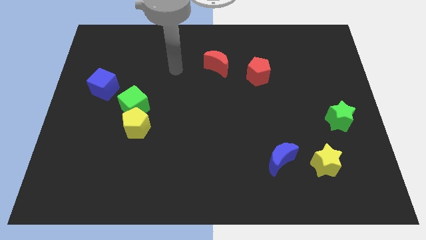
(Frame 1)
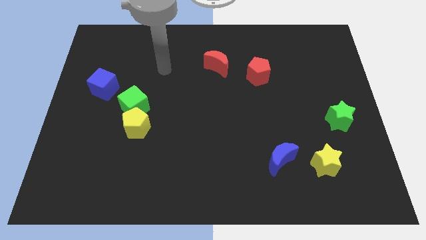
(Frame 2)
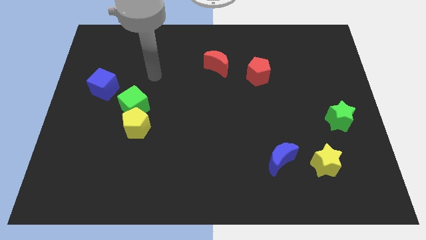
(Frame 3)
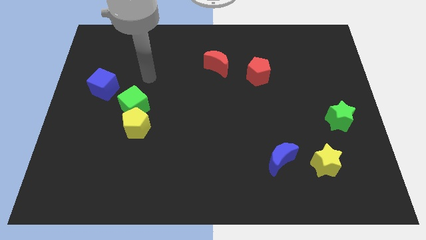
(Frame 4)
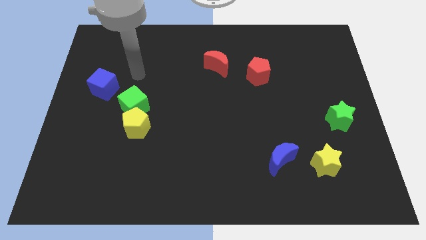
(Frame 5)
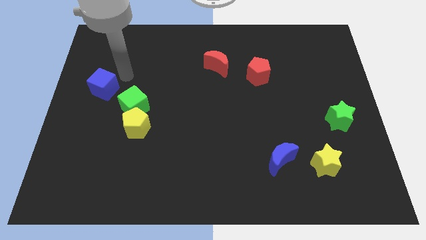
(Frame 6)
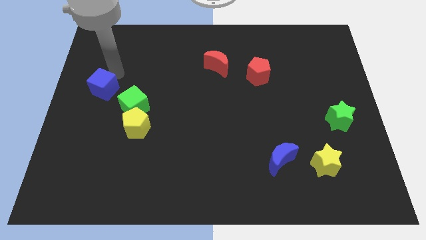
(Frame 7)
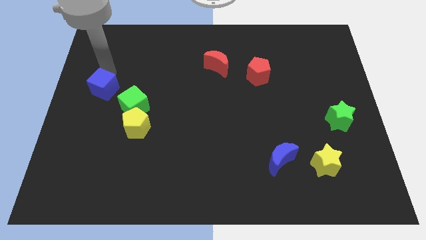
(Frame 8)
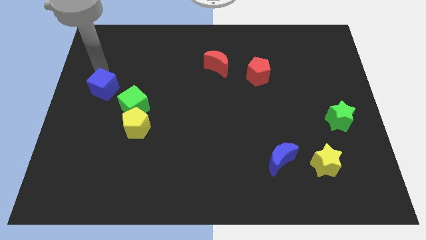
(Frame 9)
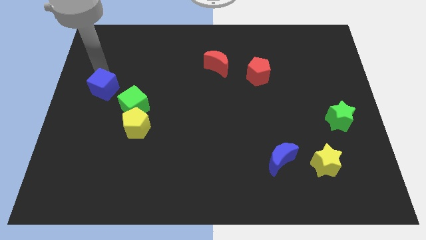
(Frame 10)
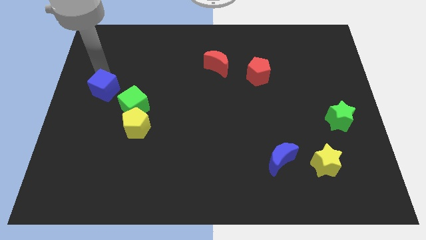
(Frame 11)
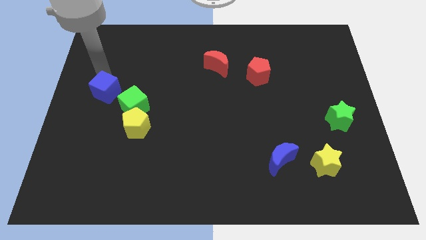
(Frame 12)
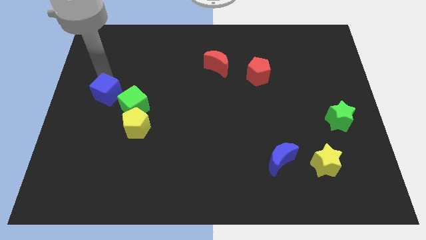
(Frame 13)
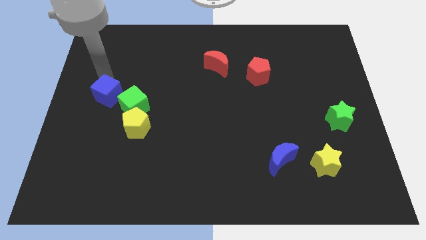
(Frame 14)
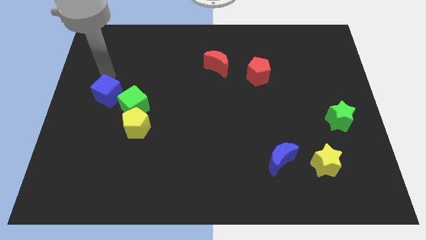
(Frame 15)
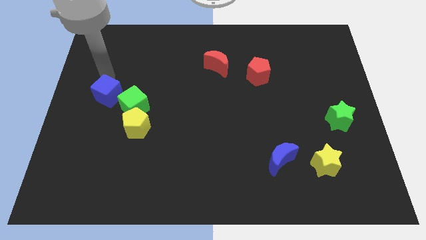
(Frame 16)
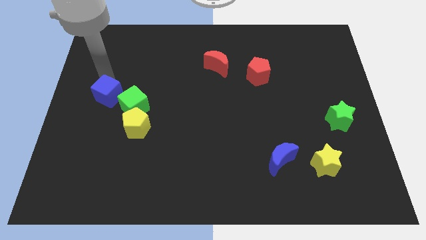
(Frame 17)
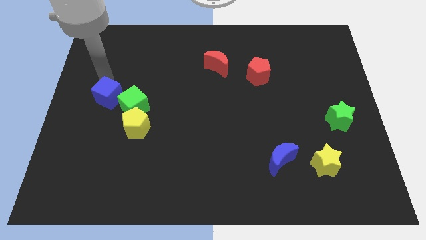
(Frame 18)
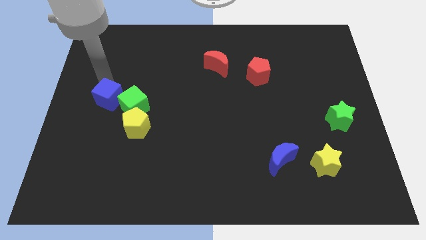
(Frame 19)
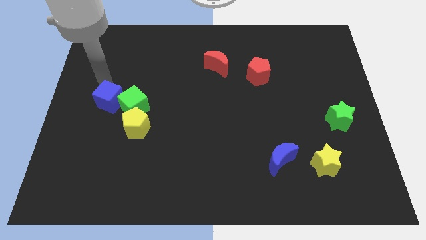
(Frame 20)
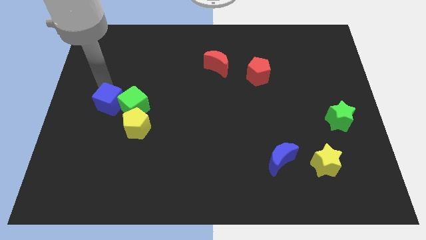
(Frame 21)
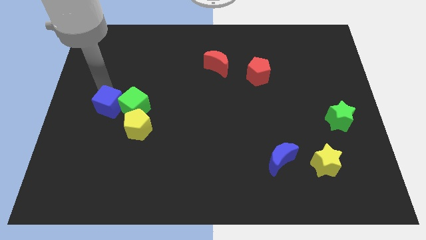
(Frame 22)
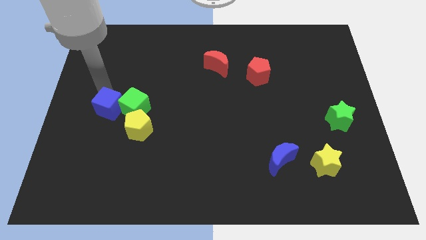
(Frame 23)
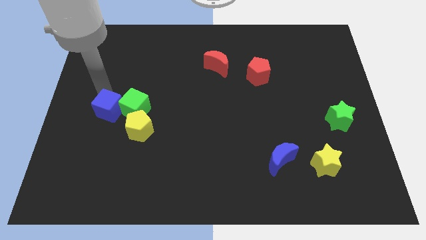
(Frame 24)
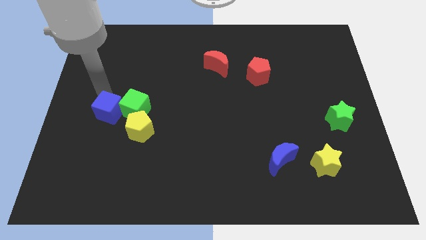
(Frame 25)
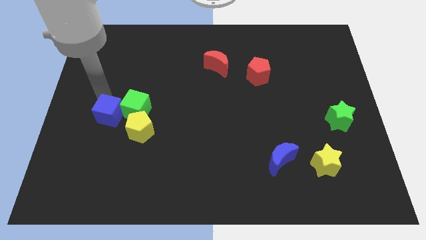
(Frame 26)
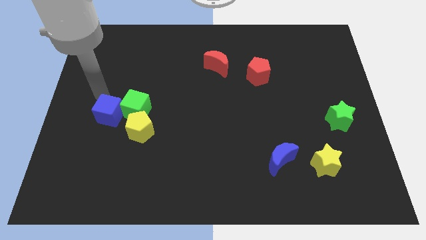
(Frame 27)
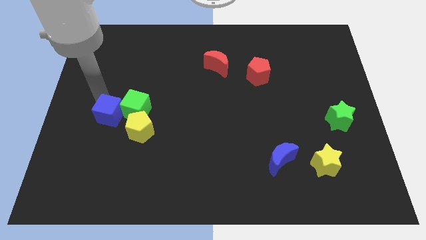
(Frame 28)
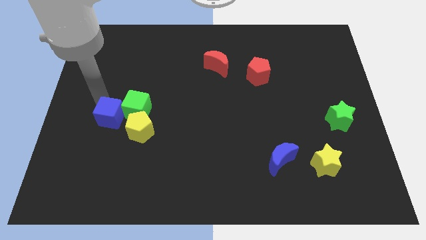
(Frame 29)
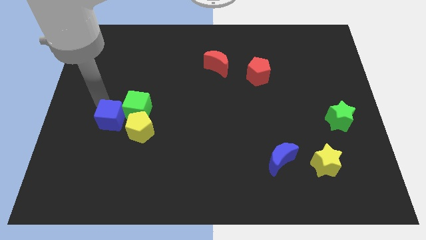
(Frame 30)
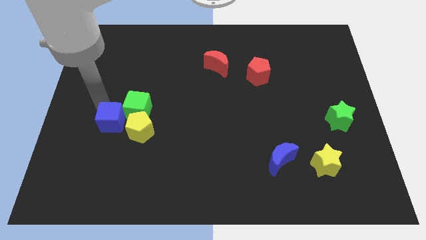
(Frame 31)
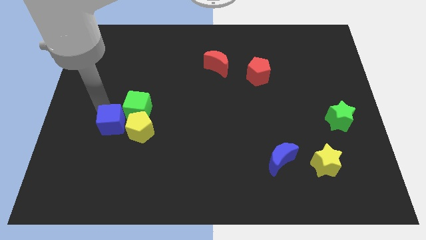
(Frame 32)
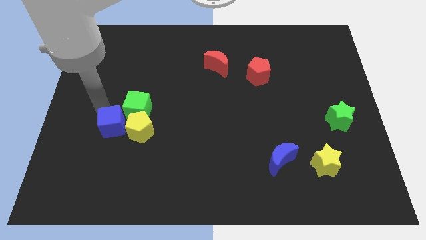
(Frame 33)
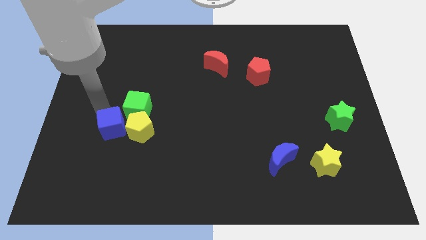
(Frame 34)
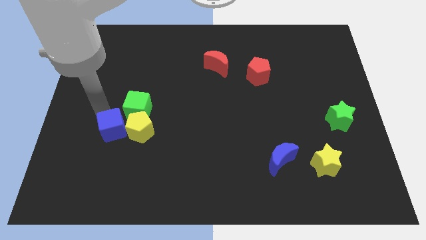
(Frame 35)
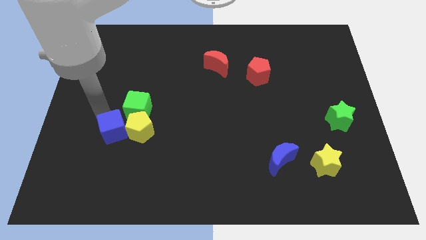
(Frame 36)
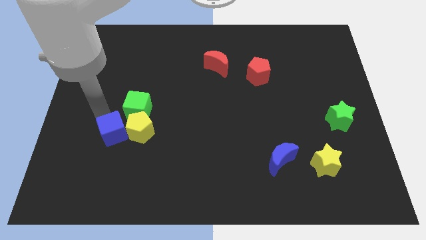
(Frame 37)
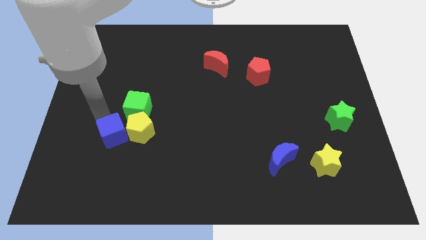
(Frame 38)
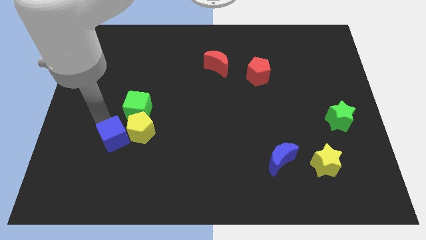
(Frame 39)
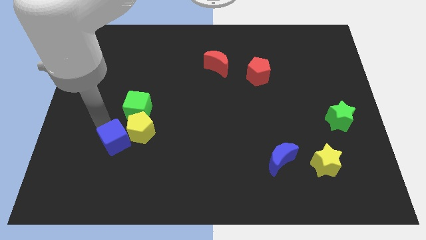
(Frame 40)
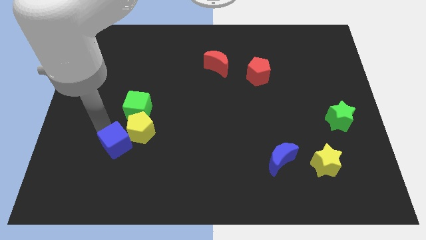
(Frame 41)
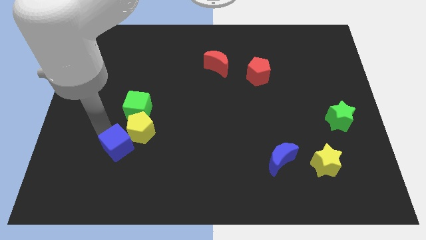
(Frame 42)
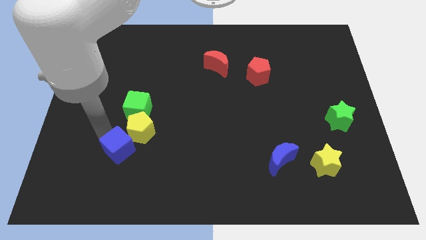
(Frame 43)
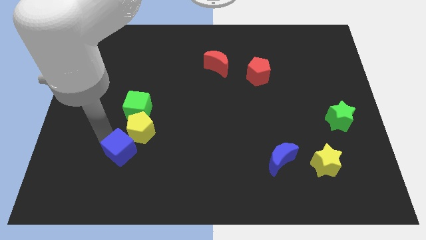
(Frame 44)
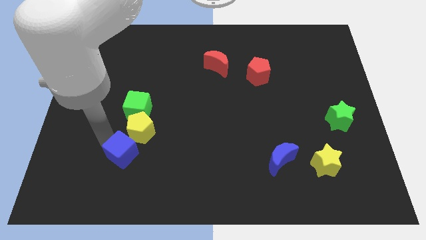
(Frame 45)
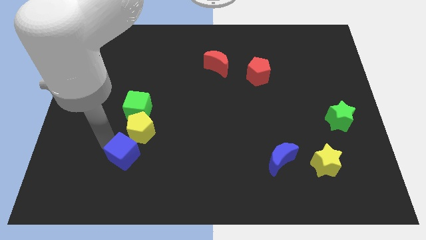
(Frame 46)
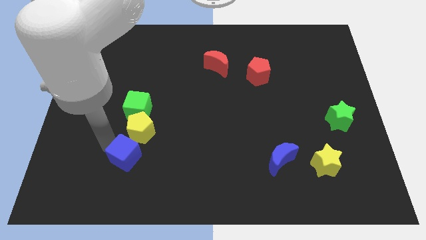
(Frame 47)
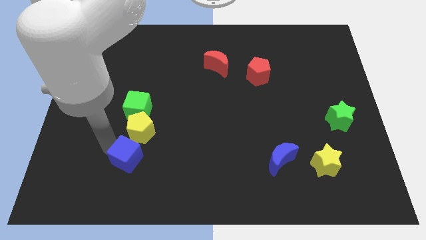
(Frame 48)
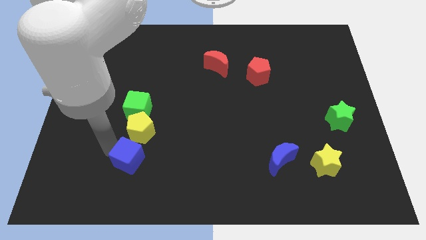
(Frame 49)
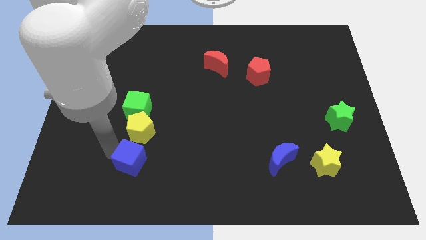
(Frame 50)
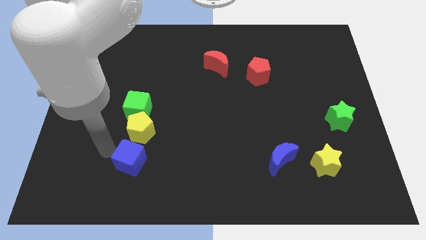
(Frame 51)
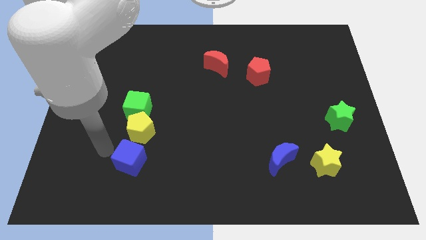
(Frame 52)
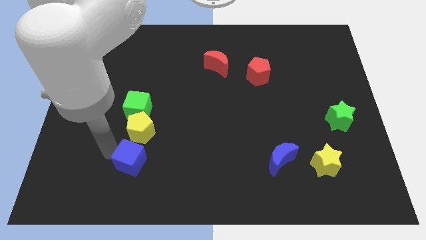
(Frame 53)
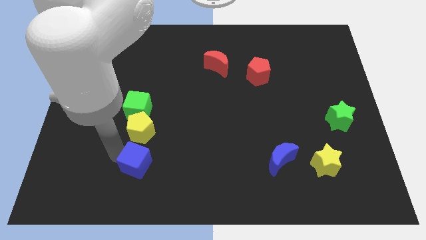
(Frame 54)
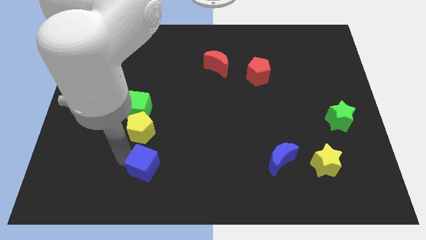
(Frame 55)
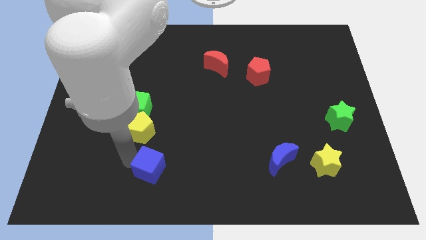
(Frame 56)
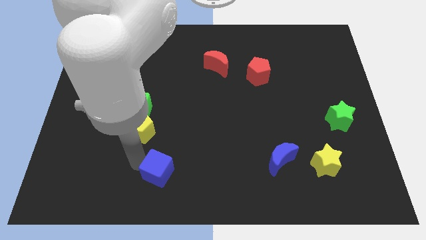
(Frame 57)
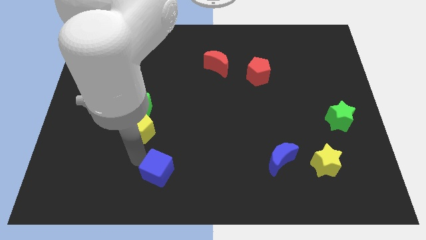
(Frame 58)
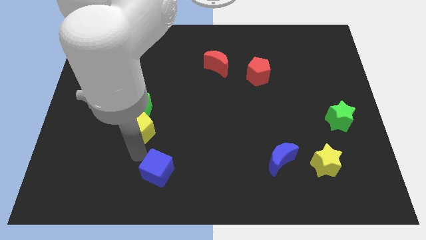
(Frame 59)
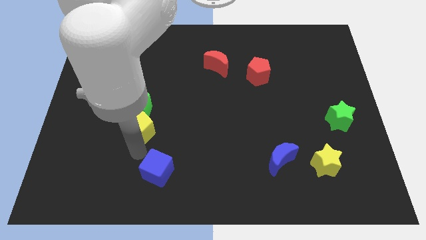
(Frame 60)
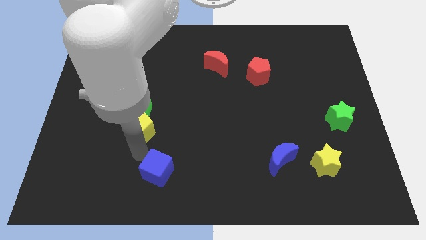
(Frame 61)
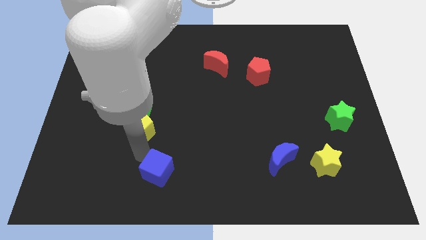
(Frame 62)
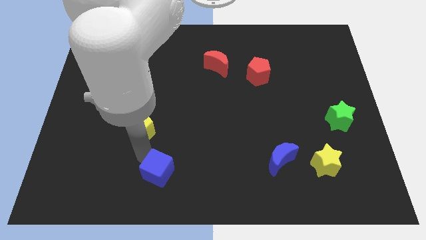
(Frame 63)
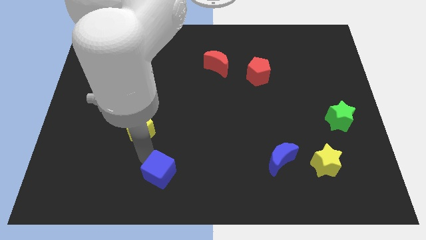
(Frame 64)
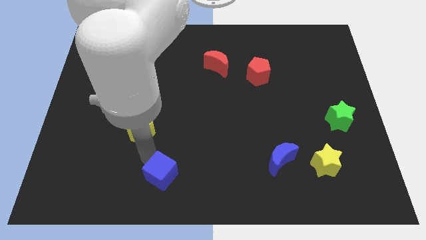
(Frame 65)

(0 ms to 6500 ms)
move the blue cube to the bottom
